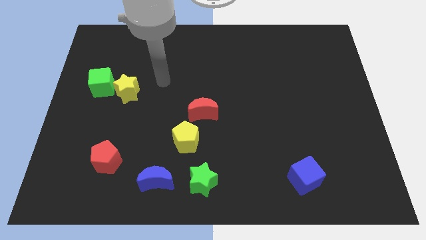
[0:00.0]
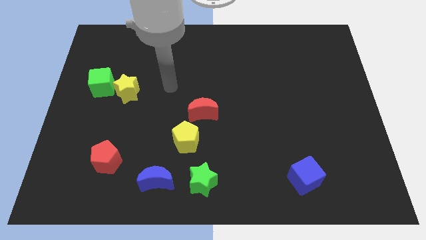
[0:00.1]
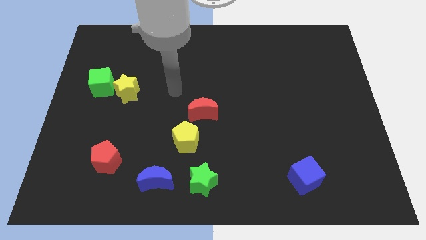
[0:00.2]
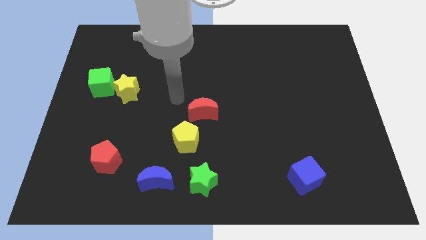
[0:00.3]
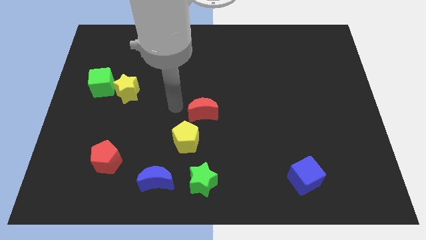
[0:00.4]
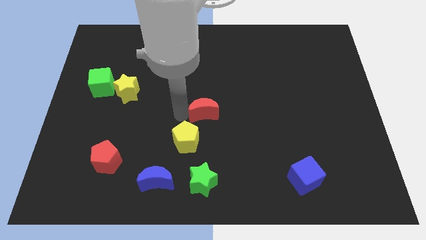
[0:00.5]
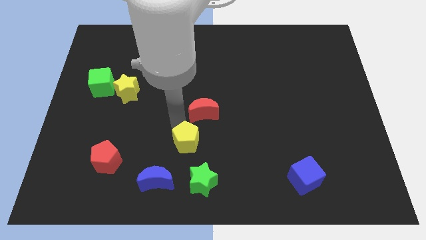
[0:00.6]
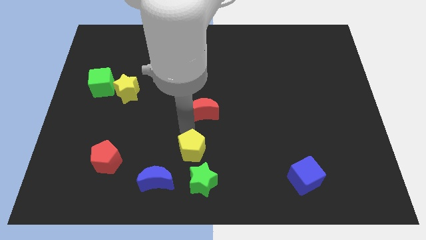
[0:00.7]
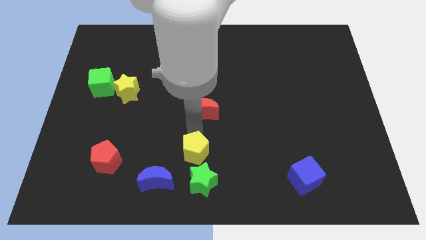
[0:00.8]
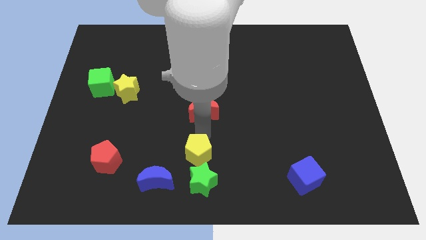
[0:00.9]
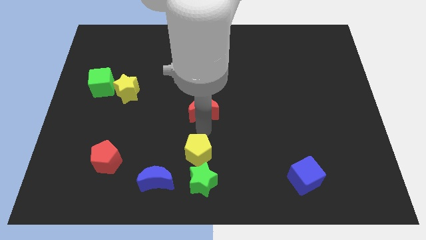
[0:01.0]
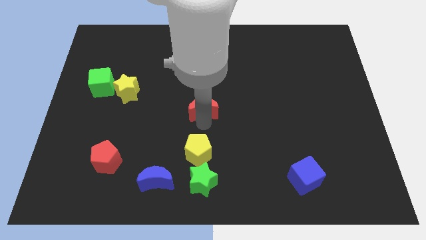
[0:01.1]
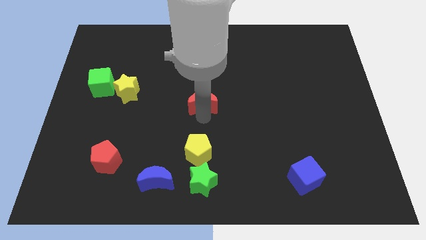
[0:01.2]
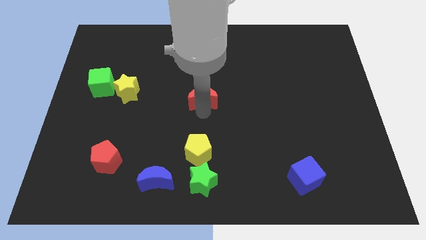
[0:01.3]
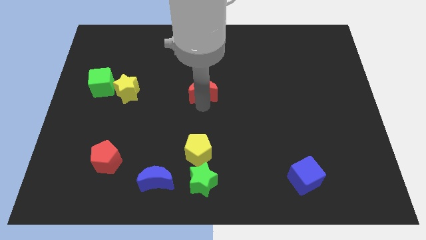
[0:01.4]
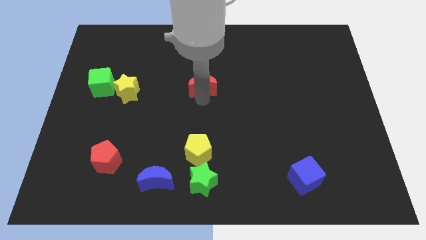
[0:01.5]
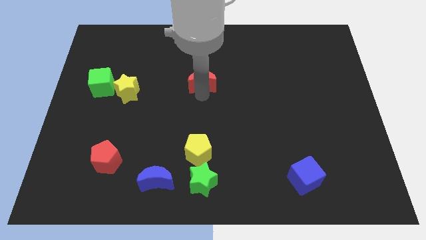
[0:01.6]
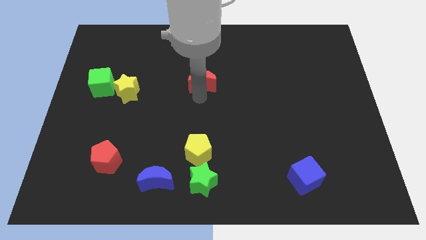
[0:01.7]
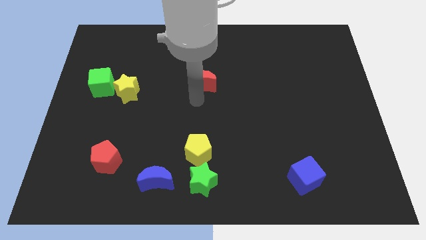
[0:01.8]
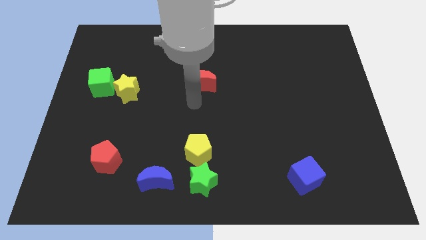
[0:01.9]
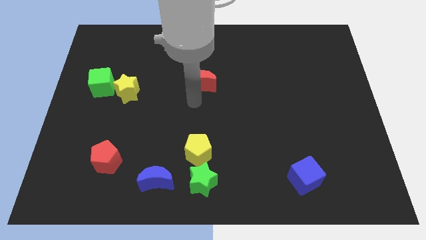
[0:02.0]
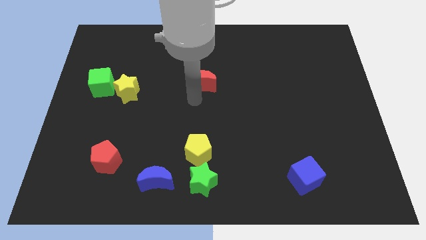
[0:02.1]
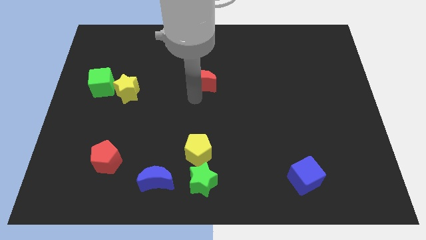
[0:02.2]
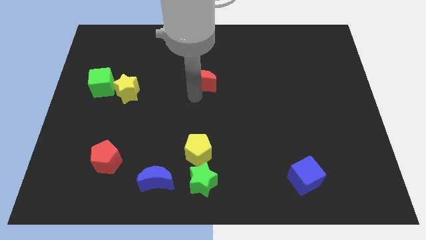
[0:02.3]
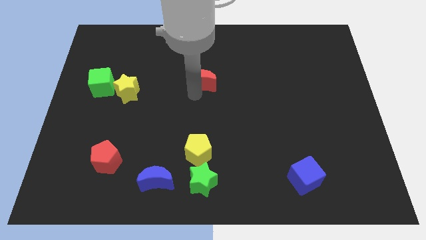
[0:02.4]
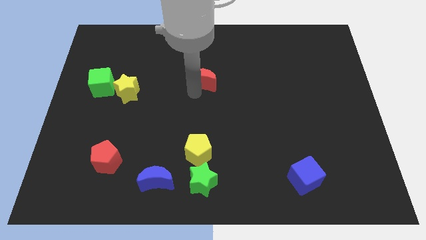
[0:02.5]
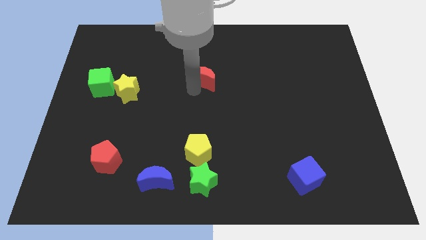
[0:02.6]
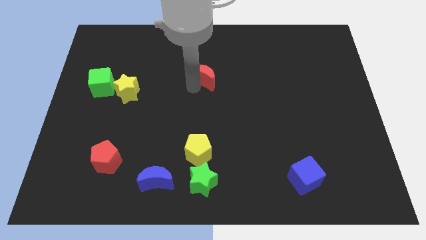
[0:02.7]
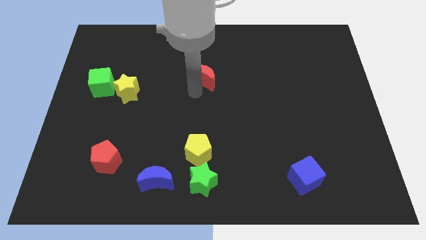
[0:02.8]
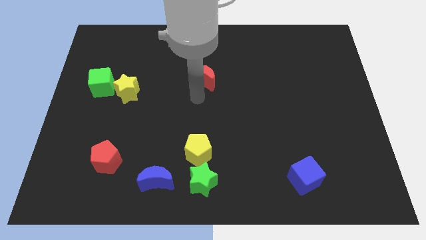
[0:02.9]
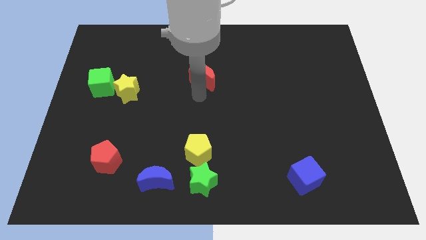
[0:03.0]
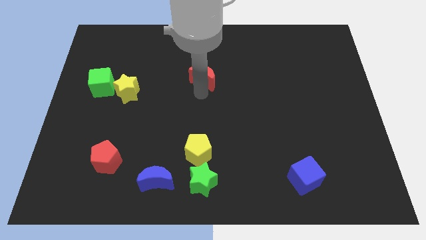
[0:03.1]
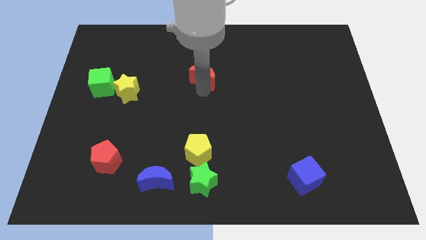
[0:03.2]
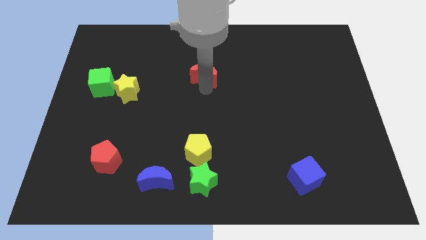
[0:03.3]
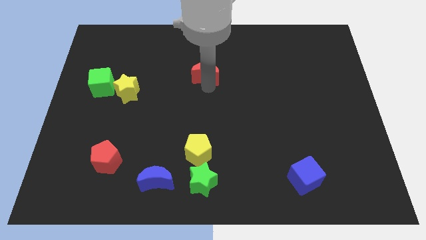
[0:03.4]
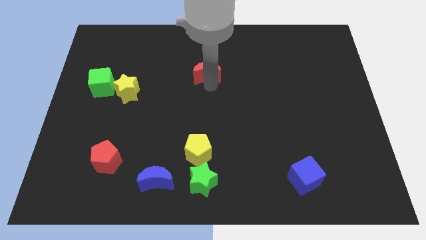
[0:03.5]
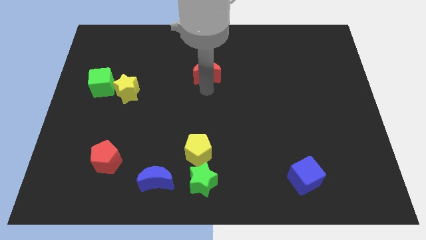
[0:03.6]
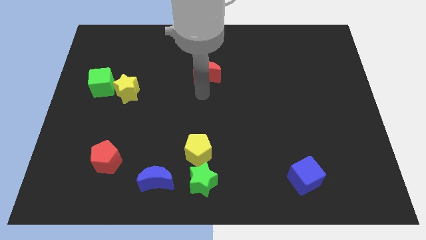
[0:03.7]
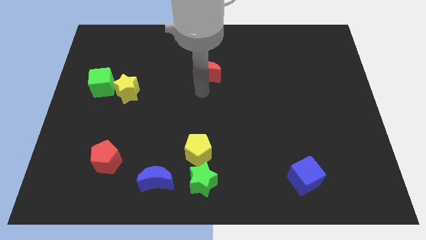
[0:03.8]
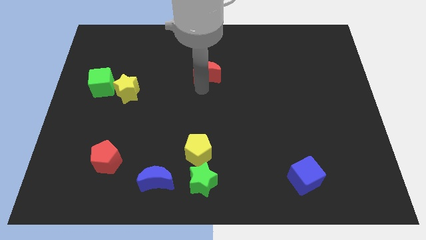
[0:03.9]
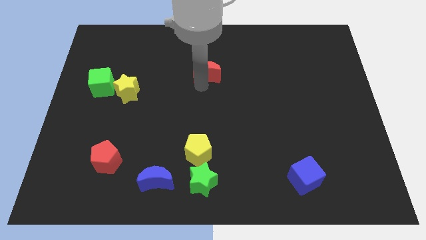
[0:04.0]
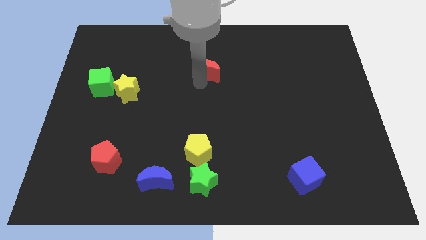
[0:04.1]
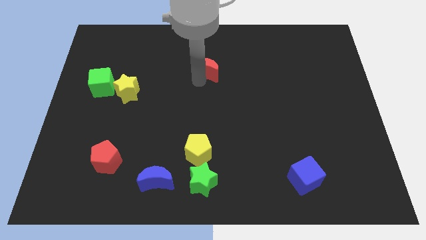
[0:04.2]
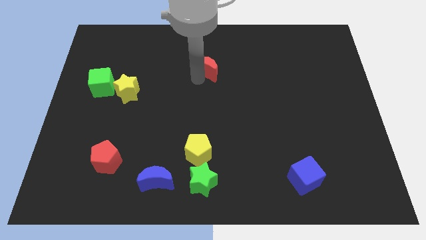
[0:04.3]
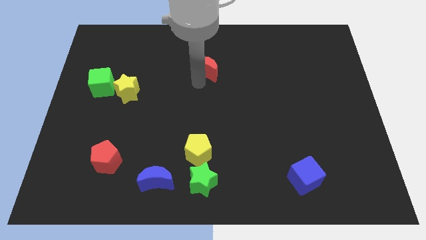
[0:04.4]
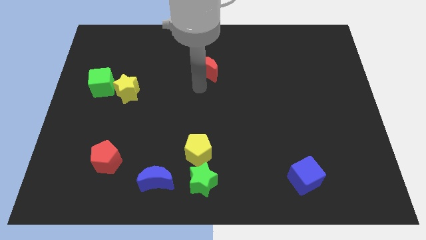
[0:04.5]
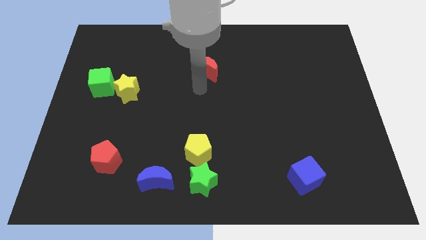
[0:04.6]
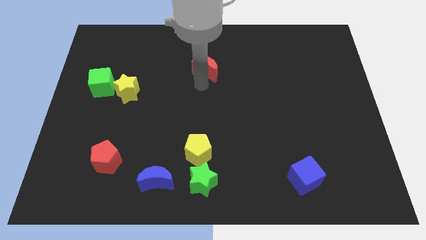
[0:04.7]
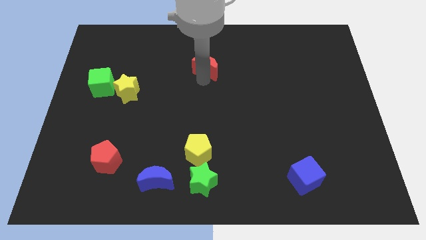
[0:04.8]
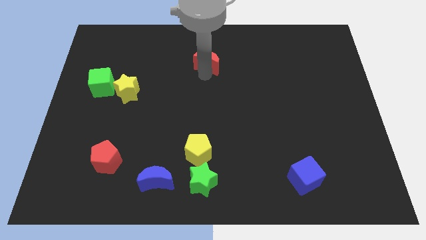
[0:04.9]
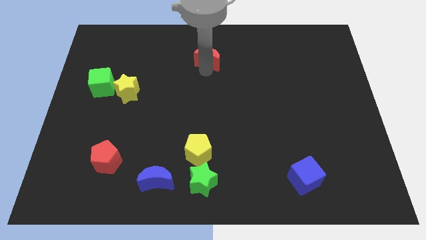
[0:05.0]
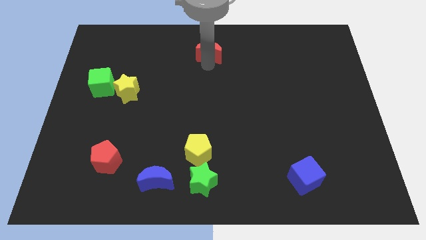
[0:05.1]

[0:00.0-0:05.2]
push the red moon to the top

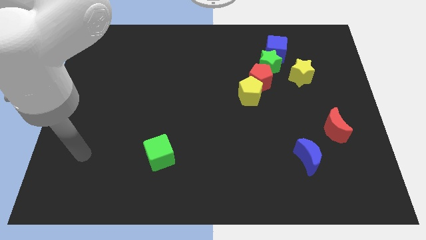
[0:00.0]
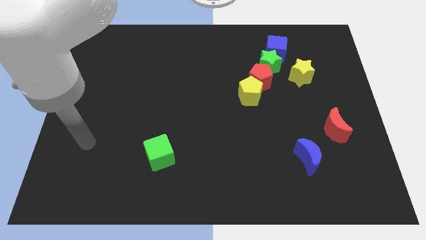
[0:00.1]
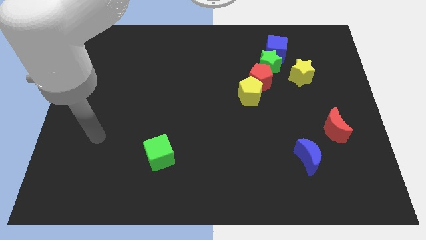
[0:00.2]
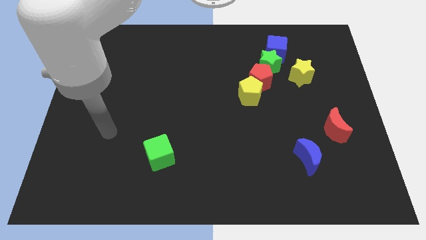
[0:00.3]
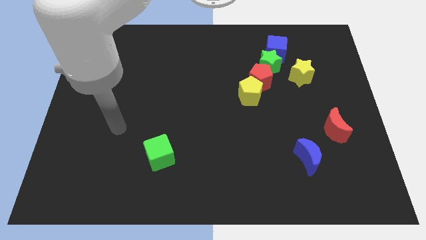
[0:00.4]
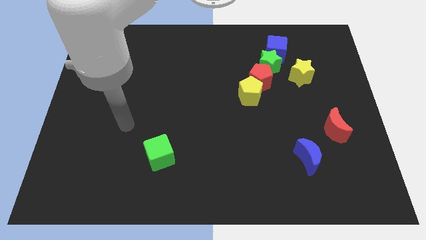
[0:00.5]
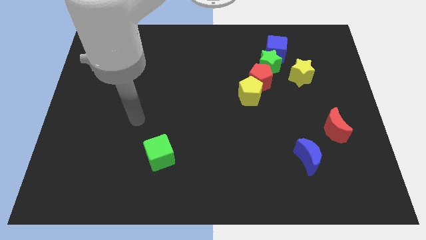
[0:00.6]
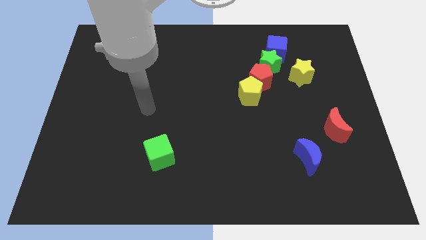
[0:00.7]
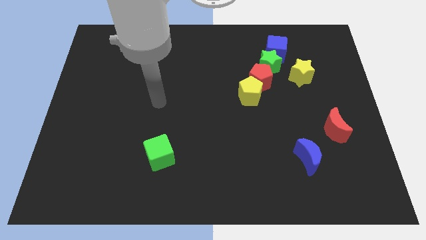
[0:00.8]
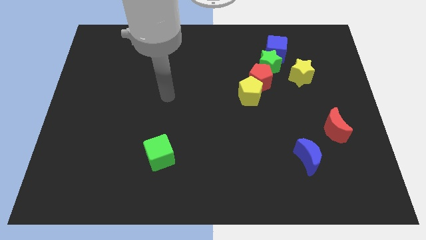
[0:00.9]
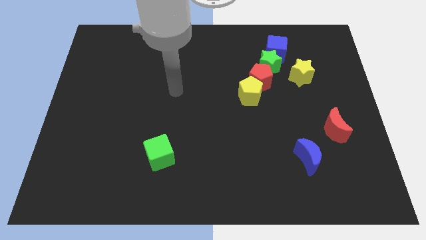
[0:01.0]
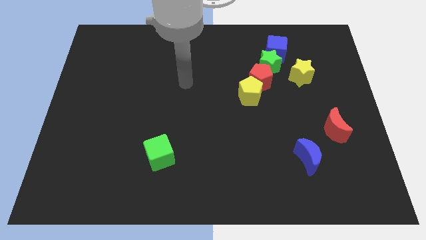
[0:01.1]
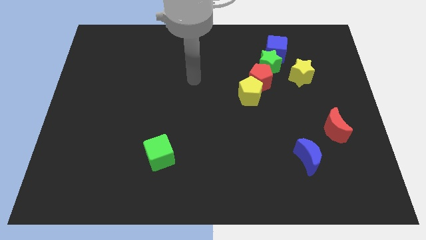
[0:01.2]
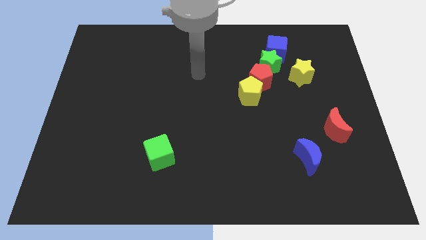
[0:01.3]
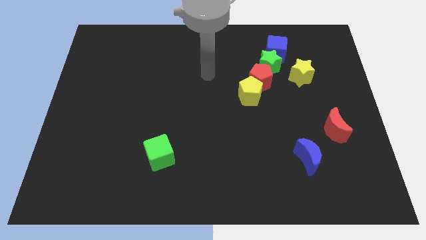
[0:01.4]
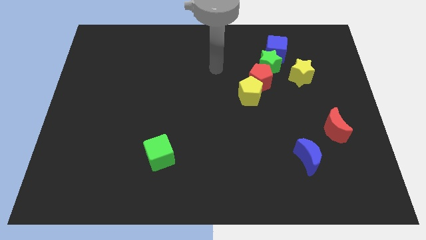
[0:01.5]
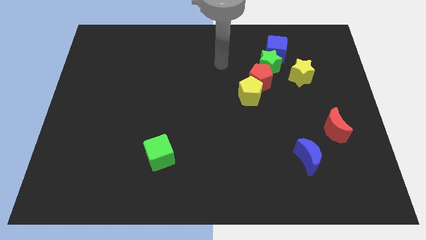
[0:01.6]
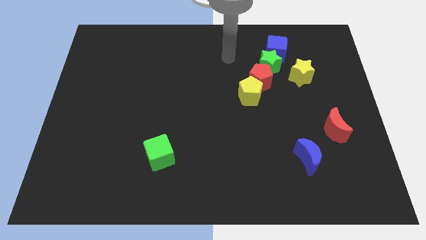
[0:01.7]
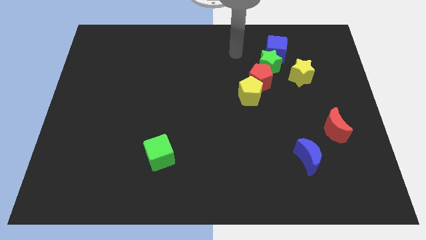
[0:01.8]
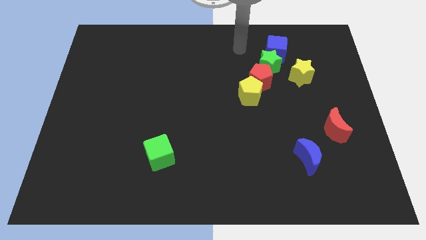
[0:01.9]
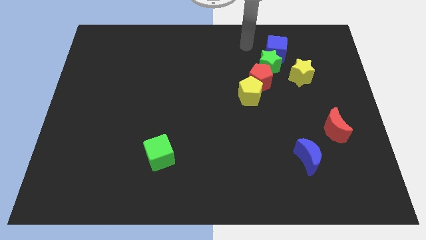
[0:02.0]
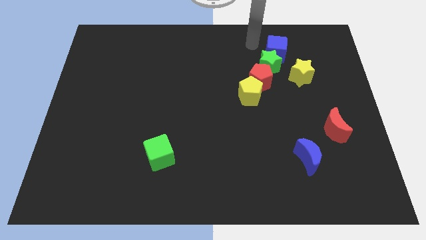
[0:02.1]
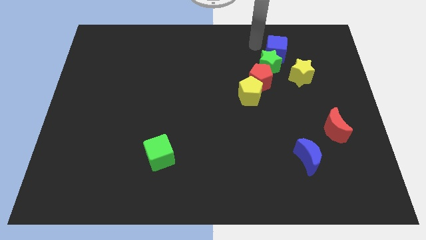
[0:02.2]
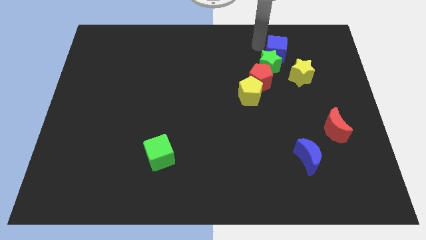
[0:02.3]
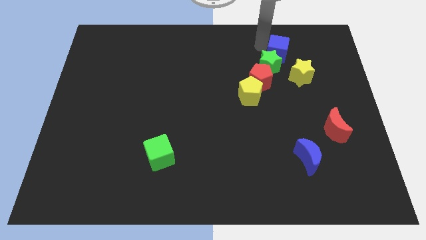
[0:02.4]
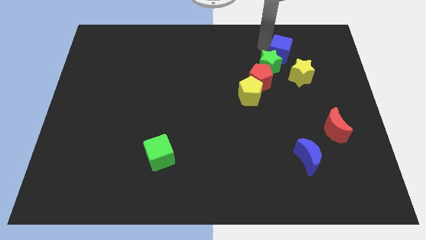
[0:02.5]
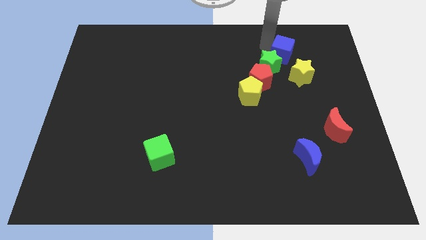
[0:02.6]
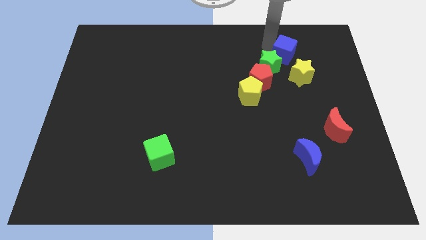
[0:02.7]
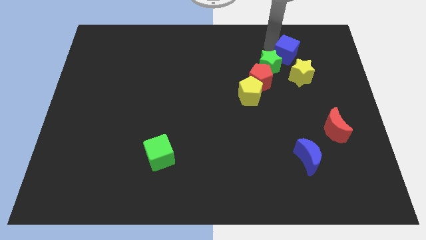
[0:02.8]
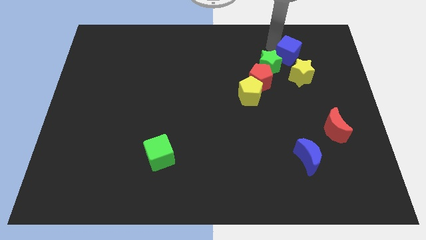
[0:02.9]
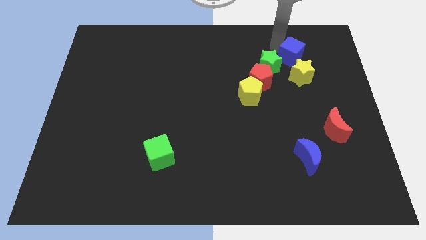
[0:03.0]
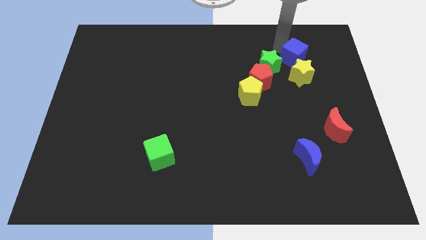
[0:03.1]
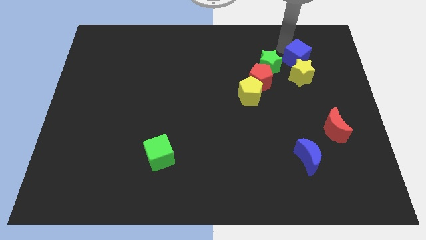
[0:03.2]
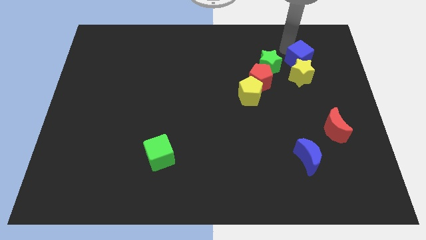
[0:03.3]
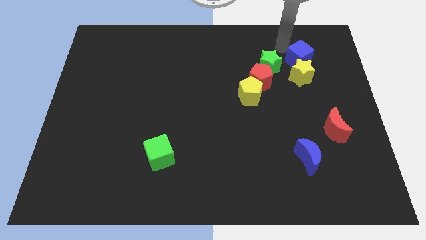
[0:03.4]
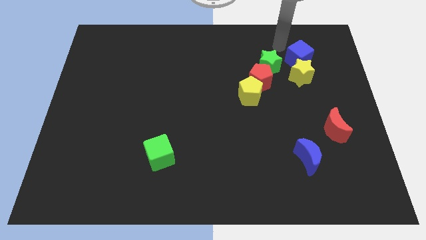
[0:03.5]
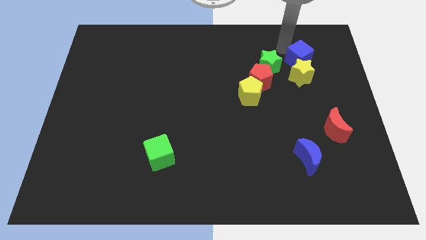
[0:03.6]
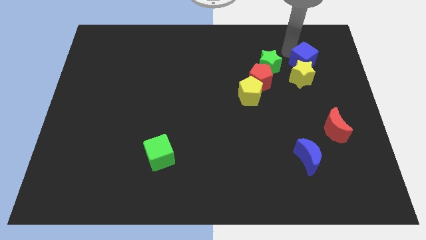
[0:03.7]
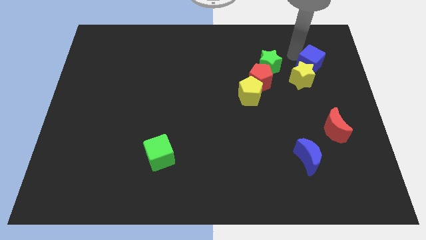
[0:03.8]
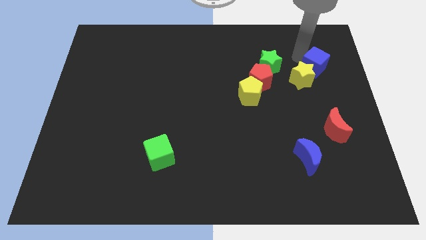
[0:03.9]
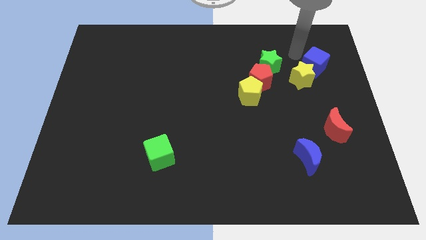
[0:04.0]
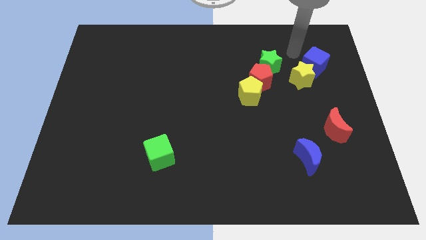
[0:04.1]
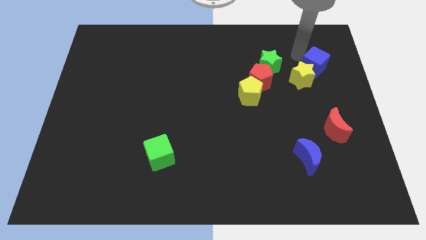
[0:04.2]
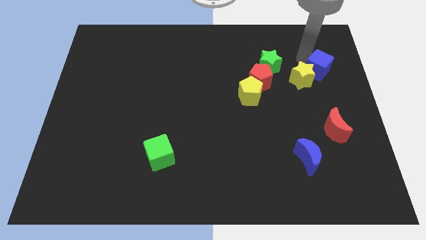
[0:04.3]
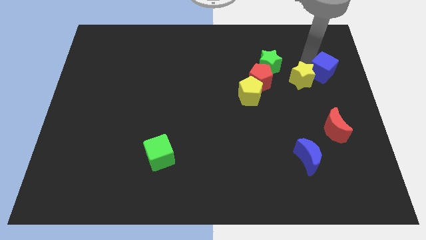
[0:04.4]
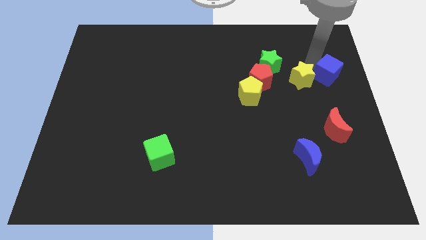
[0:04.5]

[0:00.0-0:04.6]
put the blue cube to the center right
